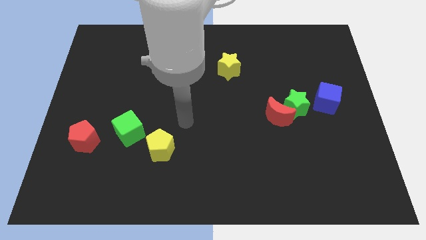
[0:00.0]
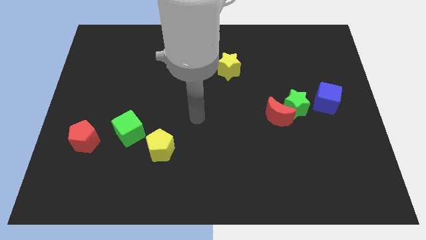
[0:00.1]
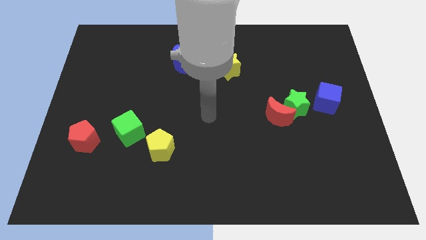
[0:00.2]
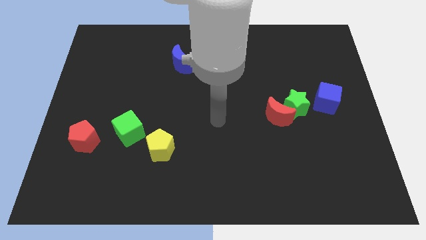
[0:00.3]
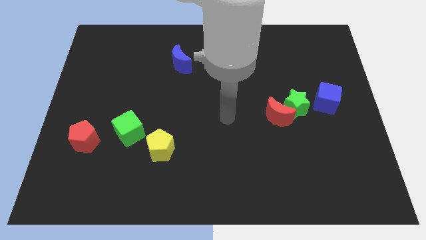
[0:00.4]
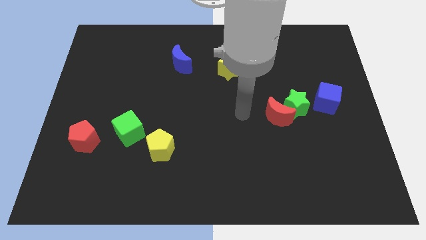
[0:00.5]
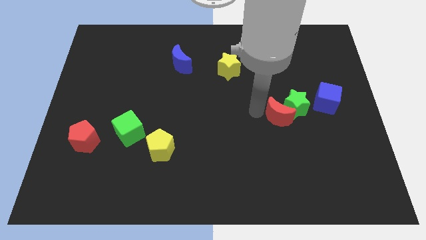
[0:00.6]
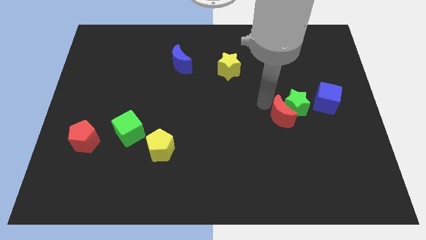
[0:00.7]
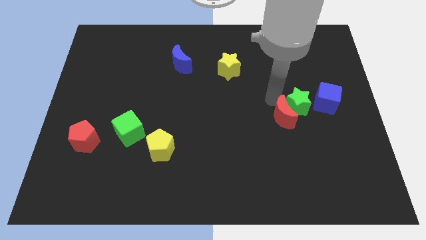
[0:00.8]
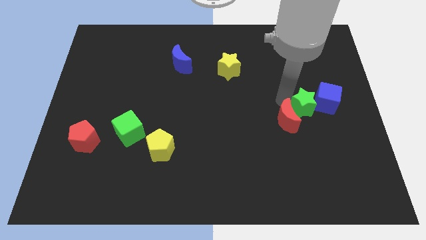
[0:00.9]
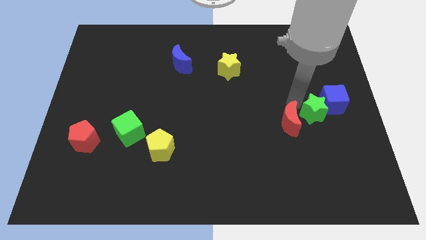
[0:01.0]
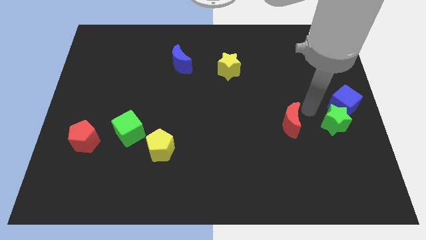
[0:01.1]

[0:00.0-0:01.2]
pull the red moon apart from the green star

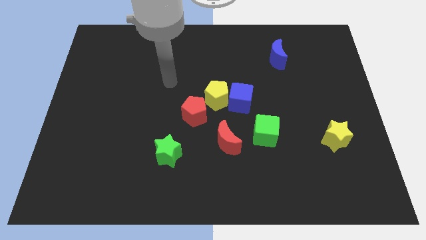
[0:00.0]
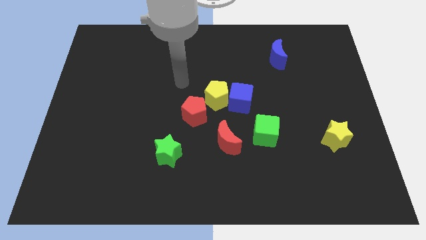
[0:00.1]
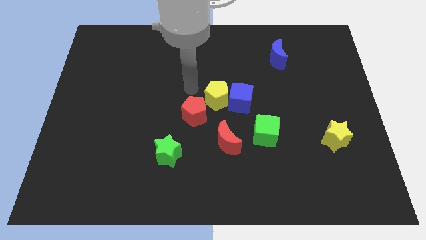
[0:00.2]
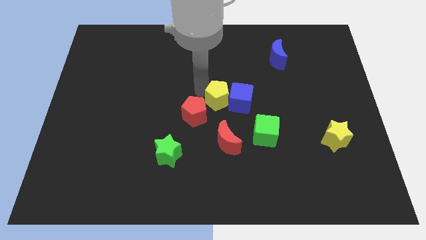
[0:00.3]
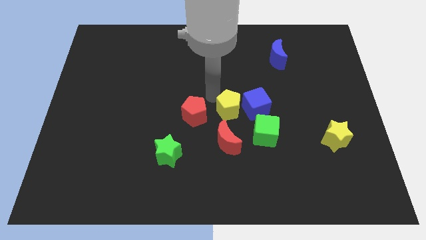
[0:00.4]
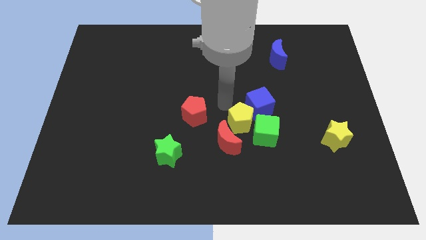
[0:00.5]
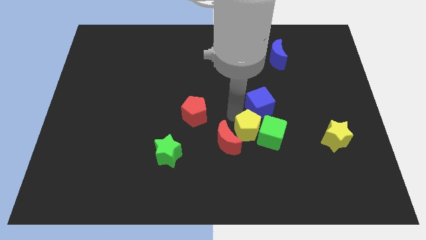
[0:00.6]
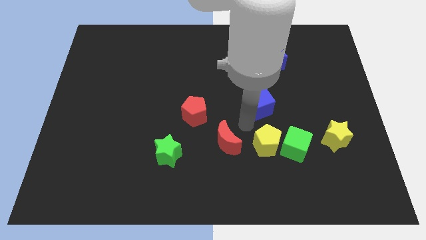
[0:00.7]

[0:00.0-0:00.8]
move the blue cube away from the yellow pentagon

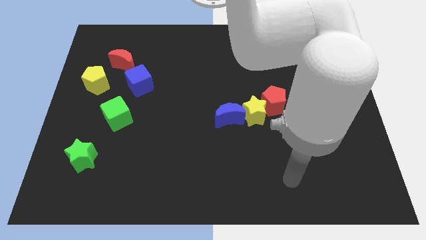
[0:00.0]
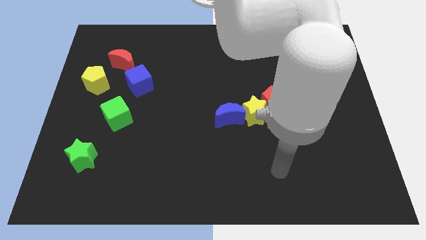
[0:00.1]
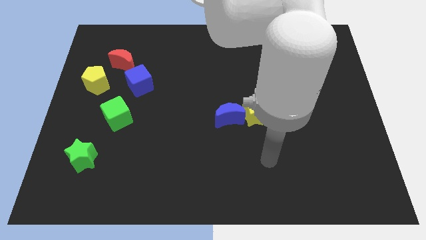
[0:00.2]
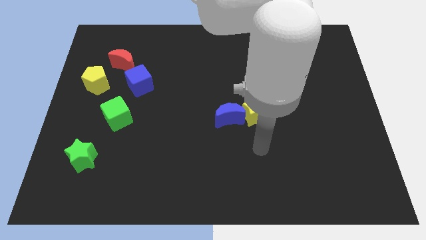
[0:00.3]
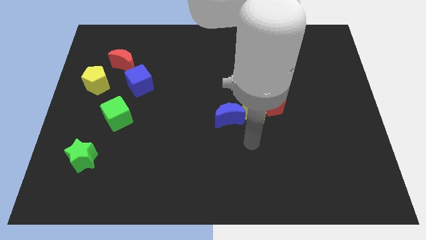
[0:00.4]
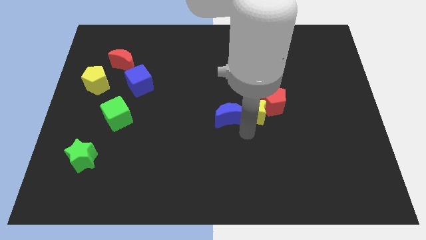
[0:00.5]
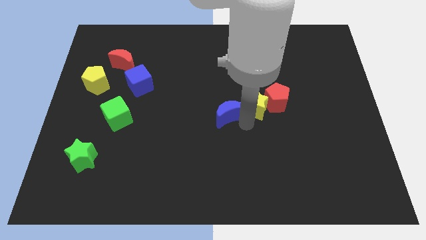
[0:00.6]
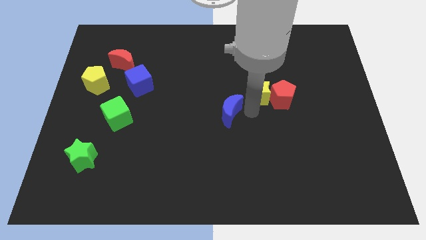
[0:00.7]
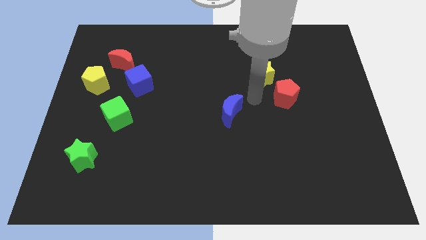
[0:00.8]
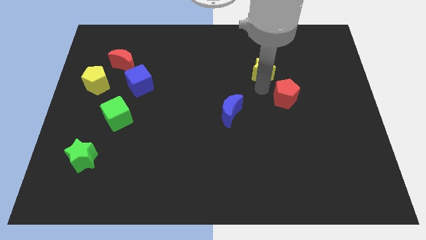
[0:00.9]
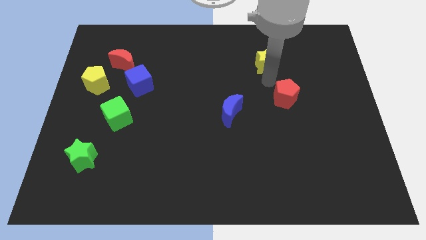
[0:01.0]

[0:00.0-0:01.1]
pull the red pentagon apart from the yellow star

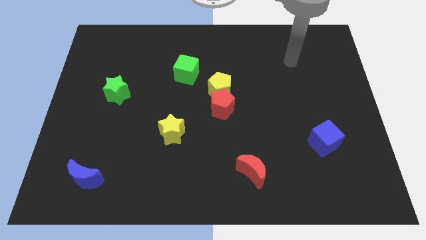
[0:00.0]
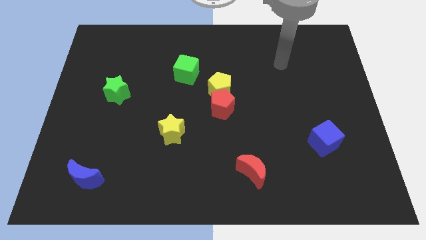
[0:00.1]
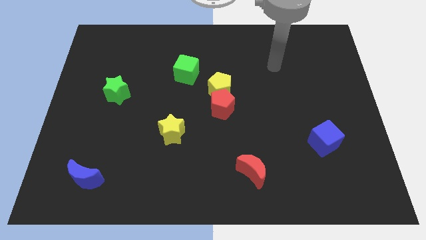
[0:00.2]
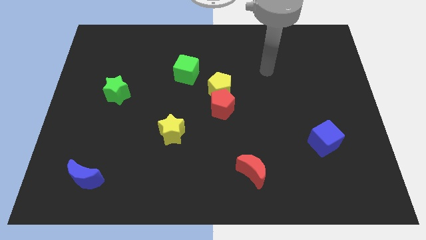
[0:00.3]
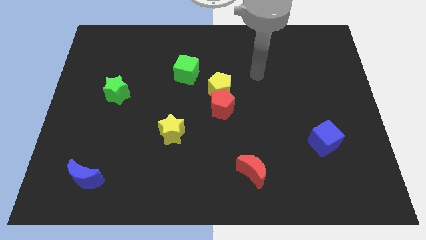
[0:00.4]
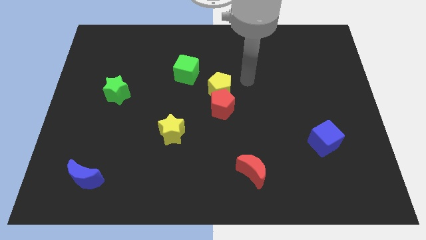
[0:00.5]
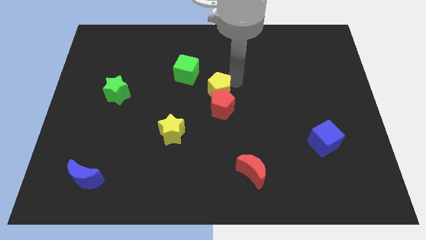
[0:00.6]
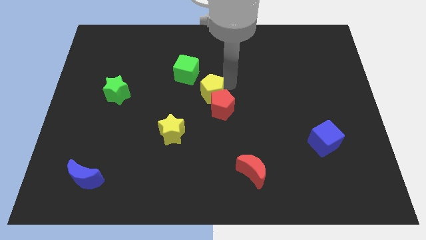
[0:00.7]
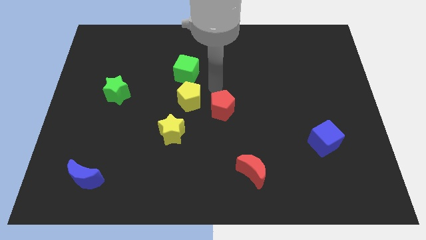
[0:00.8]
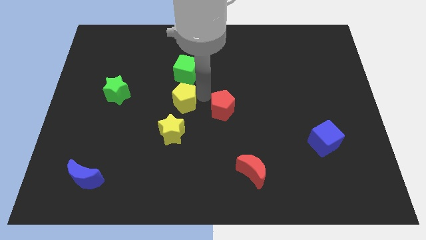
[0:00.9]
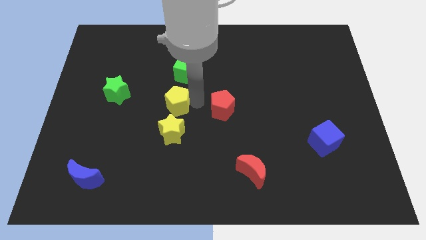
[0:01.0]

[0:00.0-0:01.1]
move the red pentagon away from the yellow pentagon

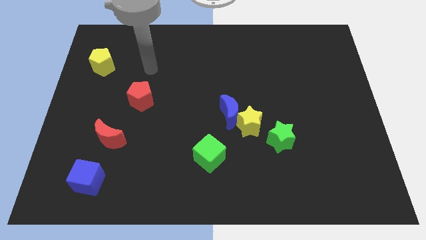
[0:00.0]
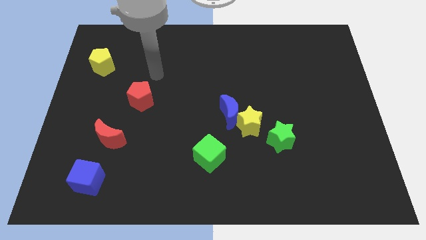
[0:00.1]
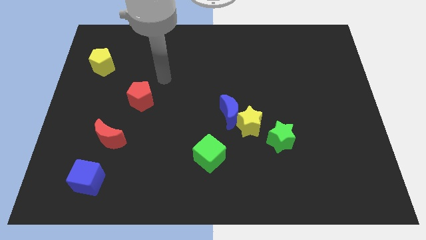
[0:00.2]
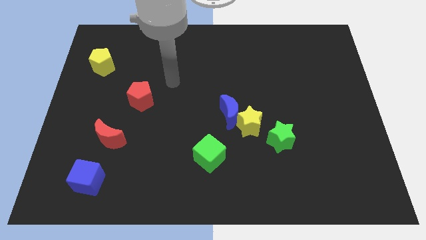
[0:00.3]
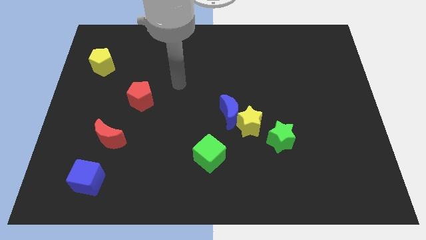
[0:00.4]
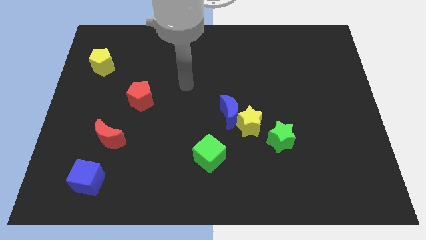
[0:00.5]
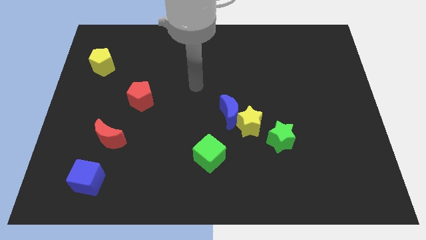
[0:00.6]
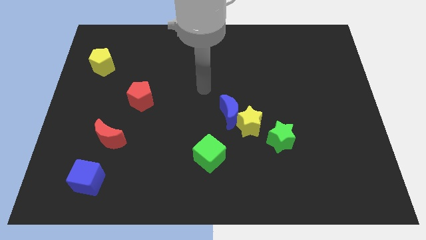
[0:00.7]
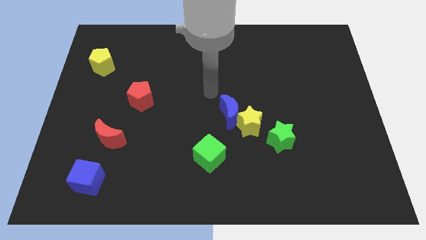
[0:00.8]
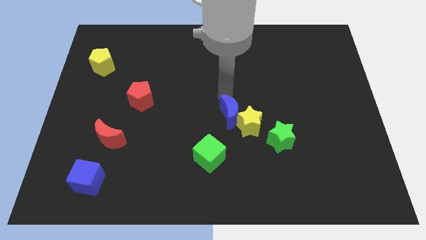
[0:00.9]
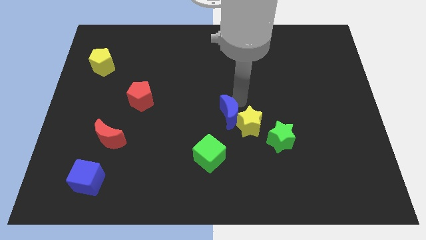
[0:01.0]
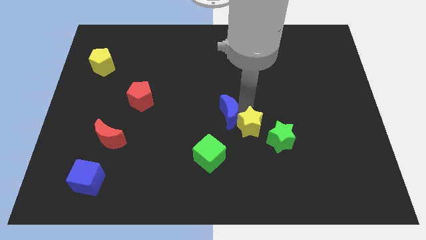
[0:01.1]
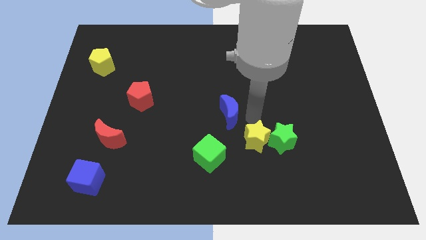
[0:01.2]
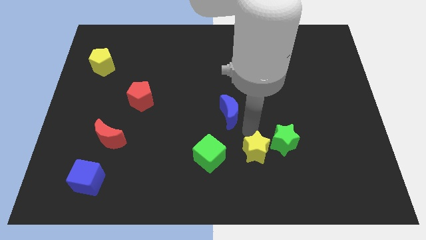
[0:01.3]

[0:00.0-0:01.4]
separate the blue moon from the yellow star

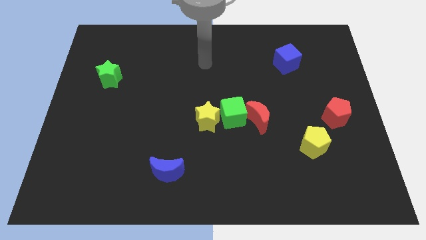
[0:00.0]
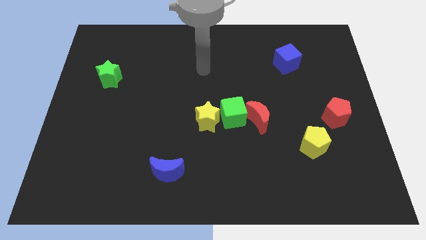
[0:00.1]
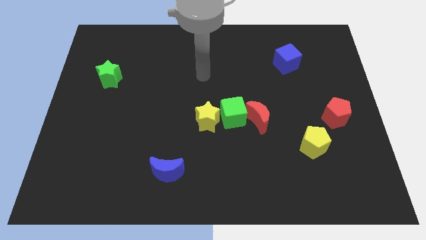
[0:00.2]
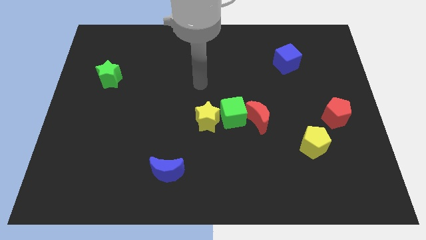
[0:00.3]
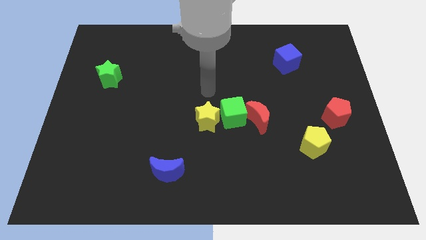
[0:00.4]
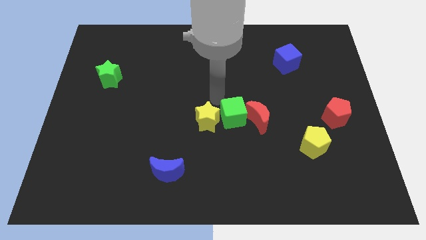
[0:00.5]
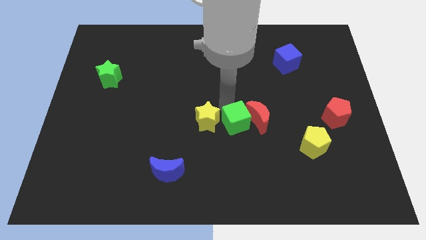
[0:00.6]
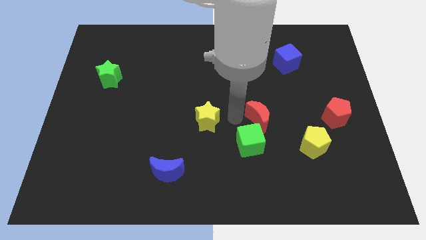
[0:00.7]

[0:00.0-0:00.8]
separate the yellow star from the green cube

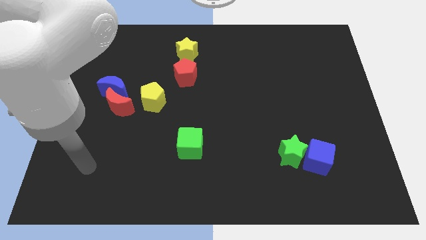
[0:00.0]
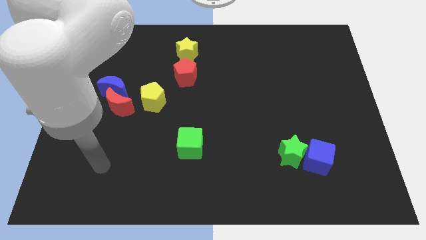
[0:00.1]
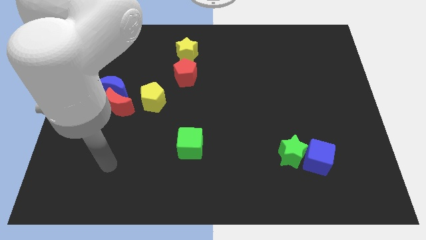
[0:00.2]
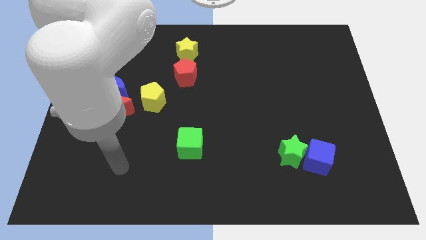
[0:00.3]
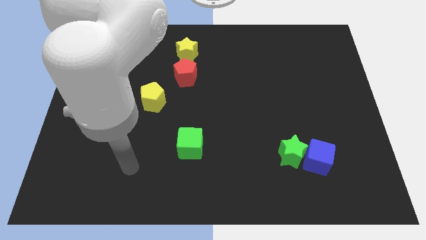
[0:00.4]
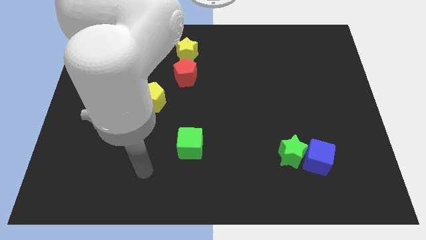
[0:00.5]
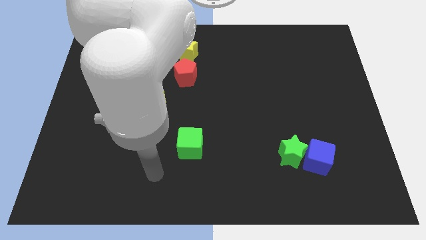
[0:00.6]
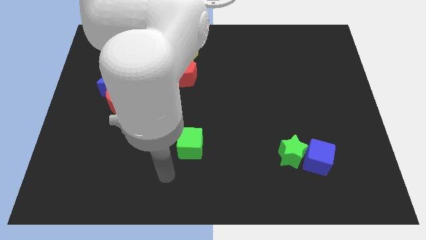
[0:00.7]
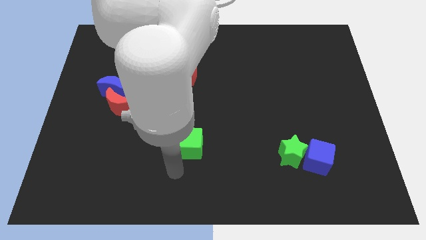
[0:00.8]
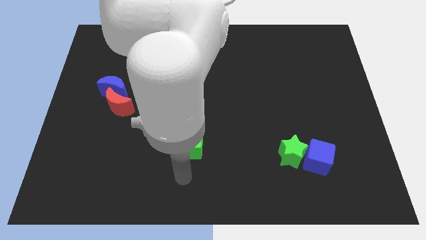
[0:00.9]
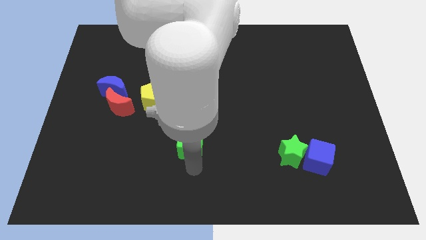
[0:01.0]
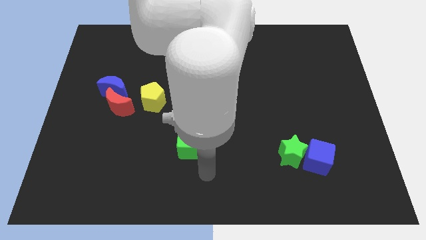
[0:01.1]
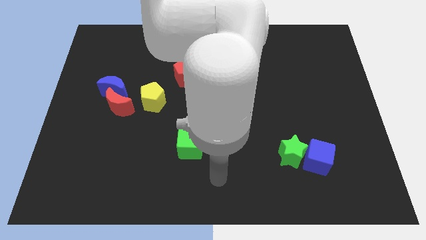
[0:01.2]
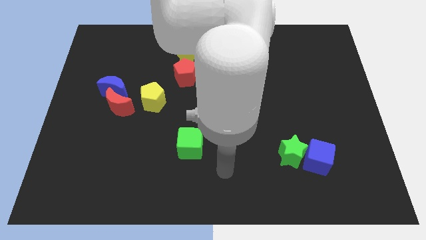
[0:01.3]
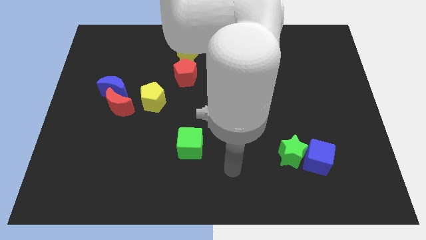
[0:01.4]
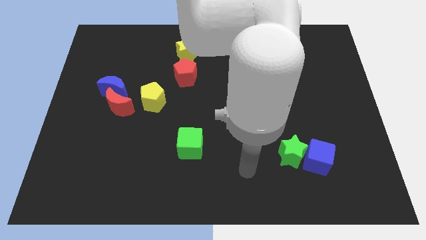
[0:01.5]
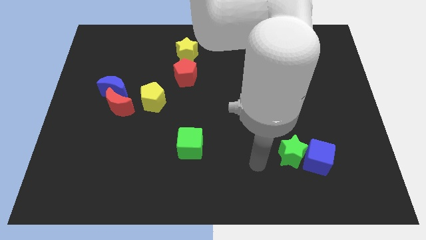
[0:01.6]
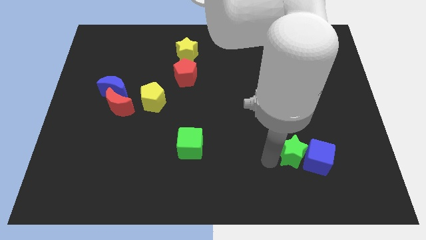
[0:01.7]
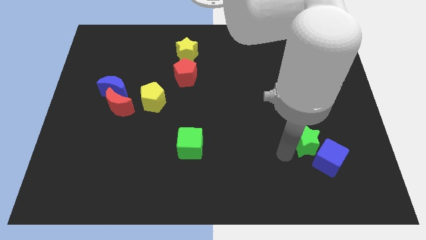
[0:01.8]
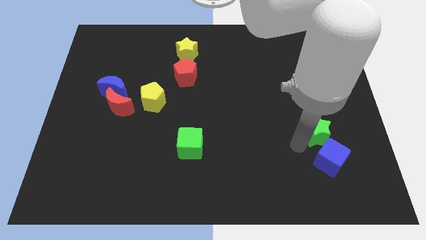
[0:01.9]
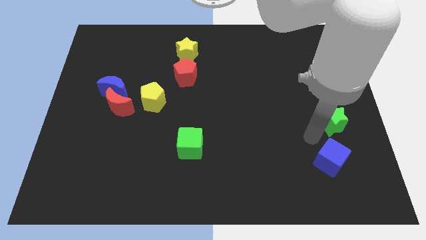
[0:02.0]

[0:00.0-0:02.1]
pull the blue cube apart from the green star

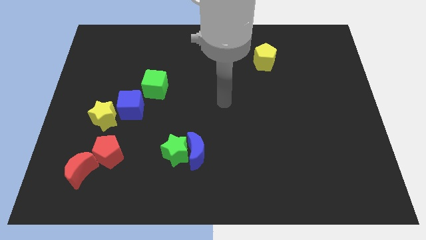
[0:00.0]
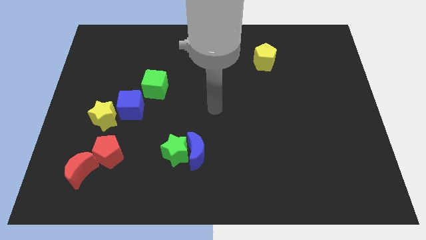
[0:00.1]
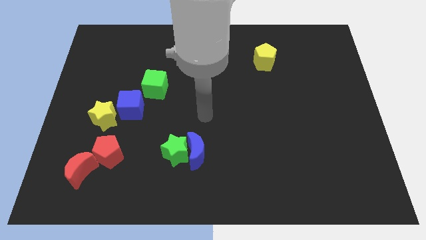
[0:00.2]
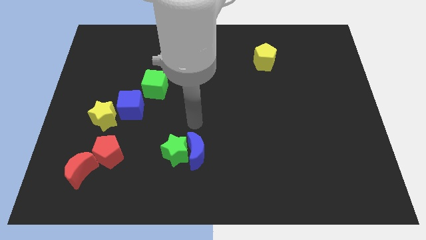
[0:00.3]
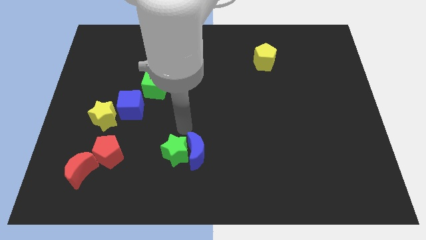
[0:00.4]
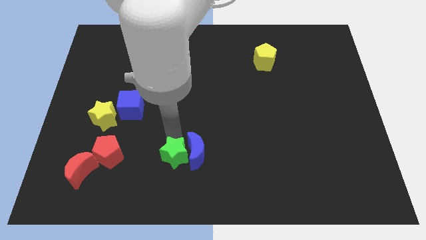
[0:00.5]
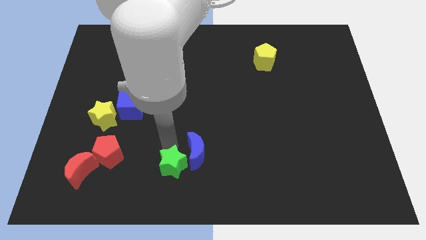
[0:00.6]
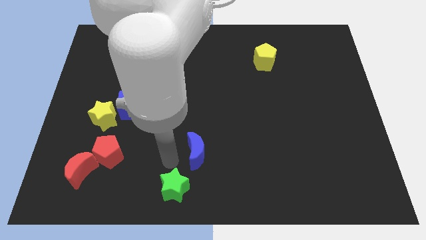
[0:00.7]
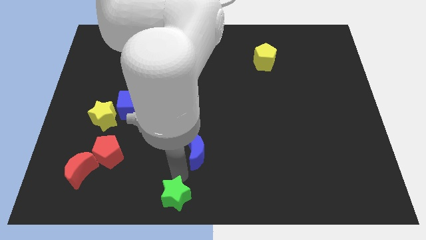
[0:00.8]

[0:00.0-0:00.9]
separate the blue moon from the green star

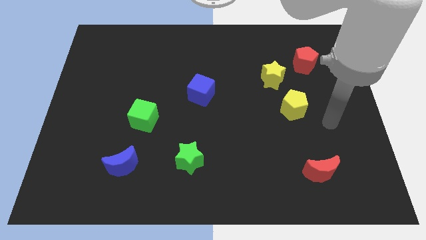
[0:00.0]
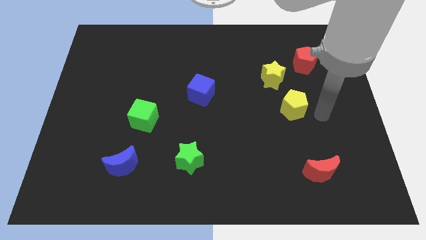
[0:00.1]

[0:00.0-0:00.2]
pull the yellow pentagon apart from the yellow star
